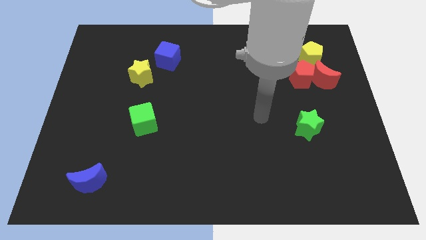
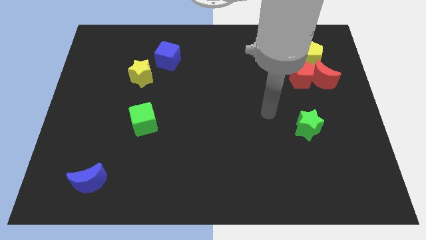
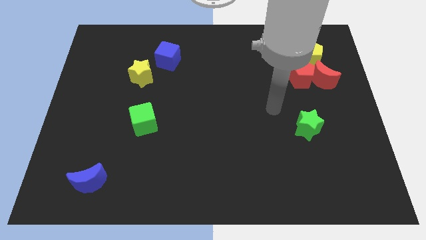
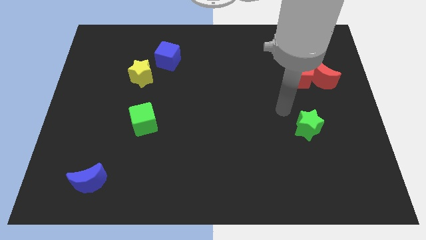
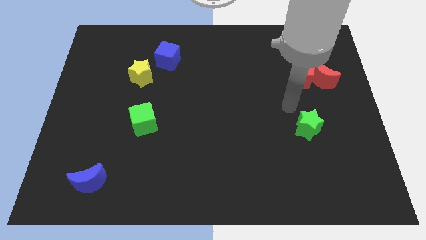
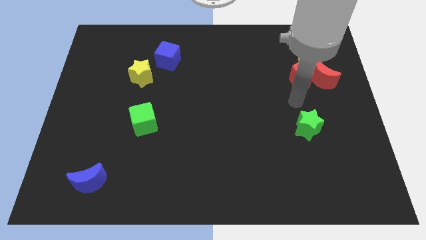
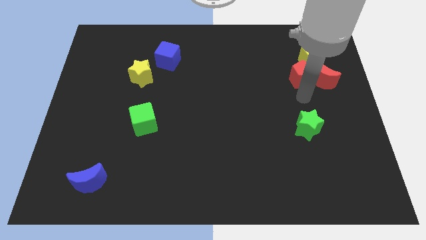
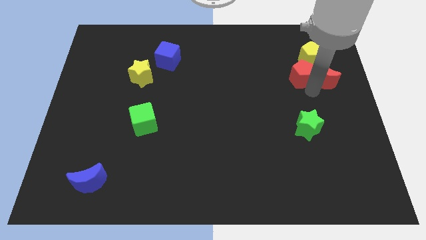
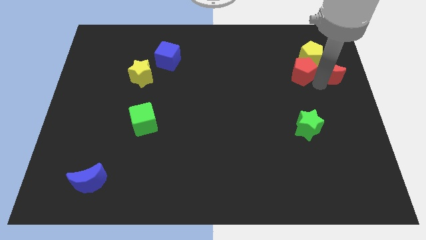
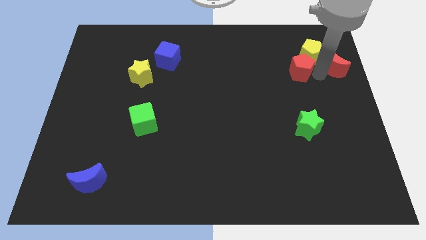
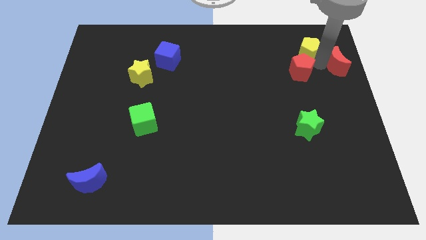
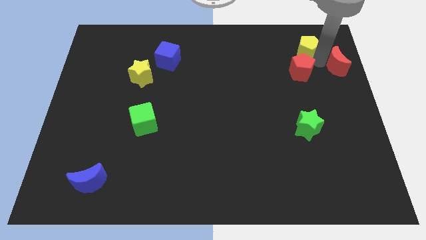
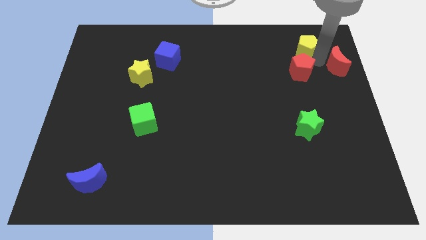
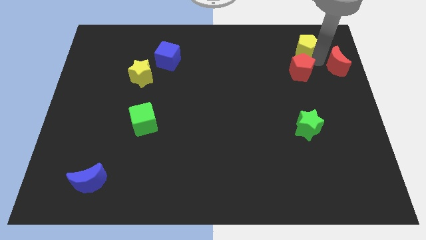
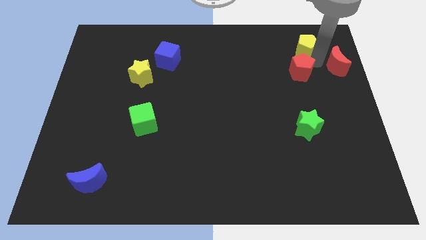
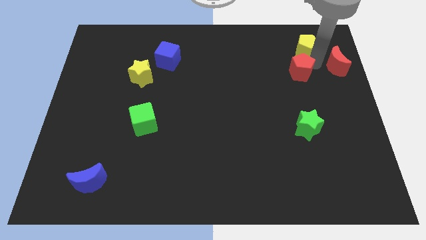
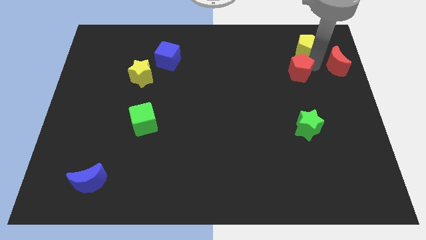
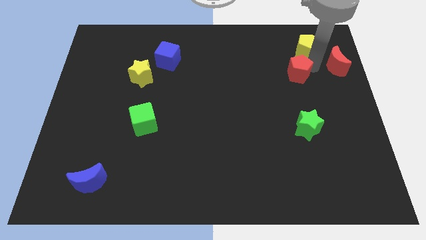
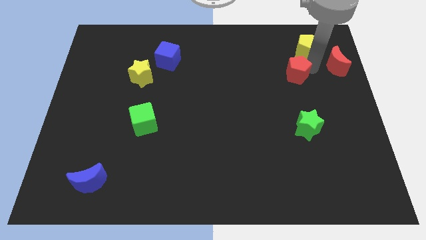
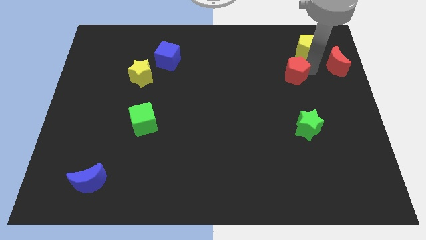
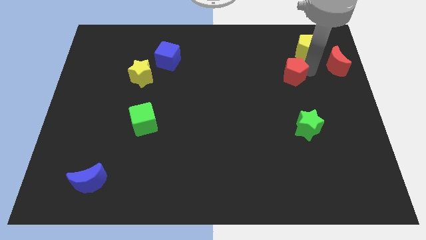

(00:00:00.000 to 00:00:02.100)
move the red pentagon away from the red moon and yellow pentagon

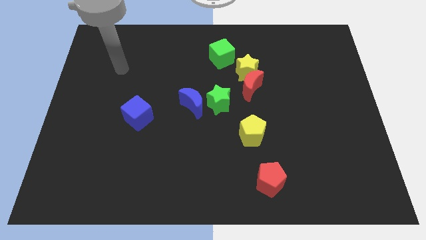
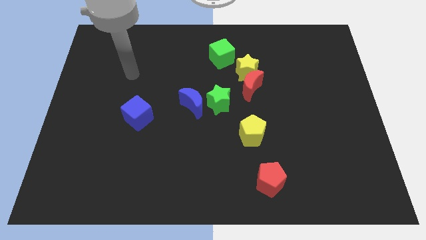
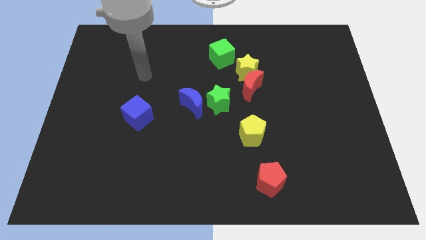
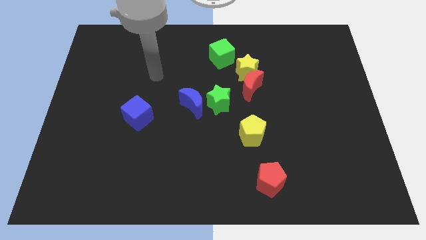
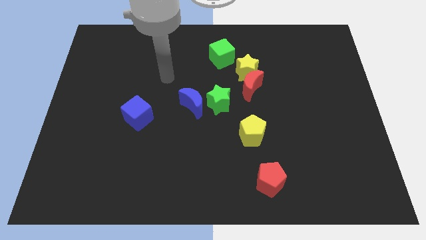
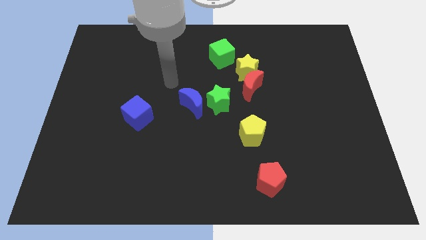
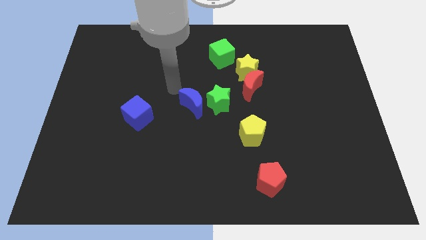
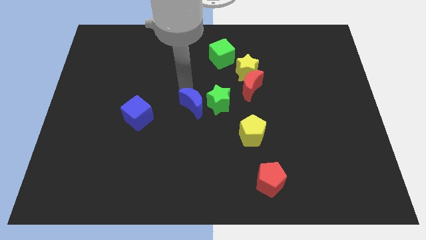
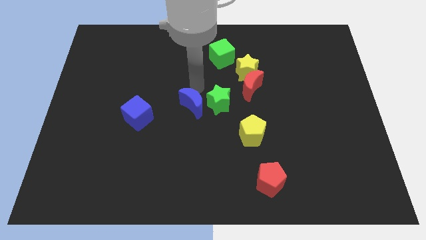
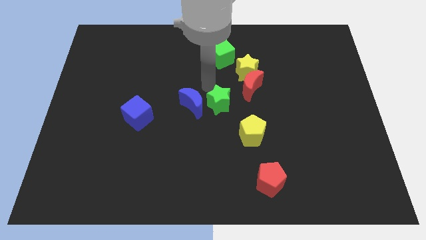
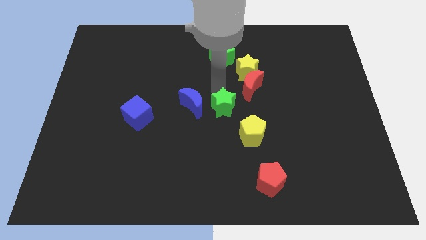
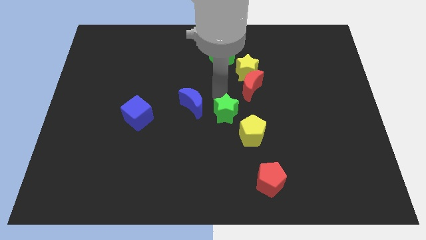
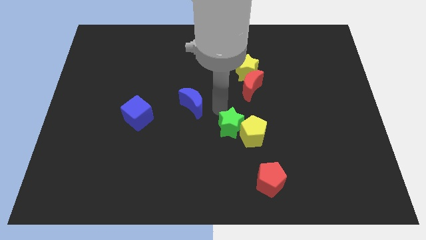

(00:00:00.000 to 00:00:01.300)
separate the blue moon from the green star

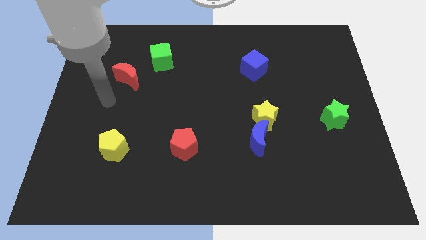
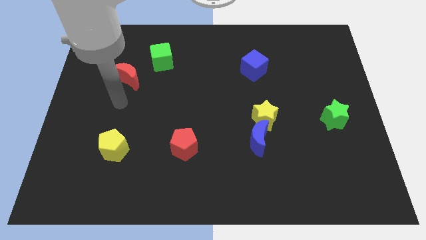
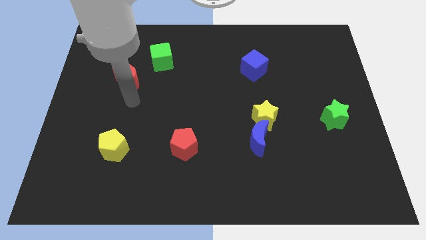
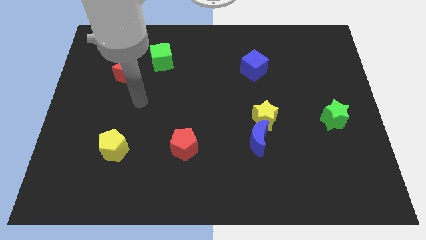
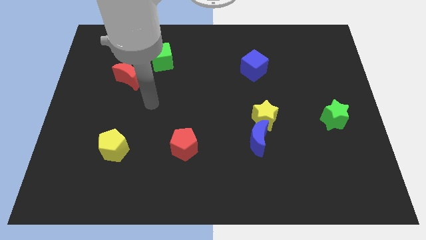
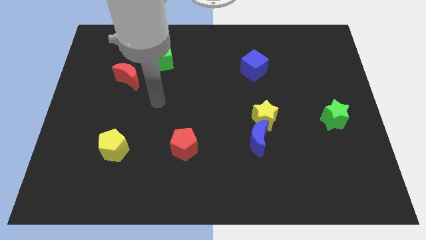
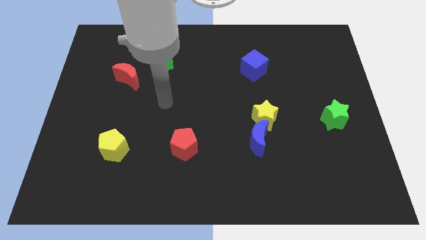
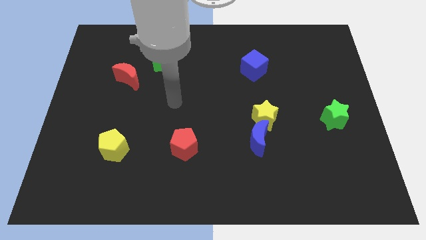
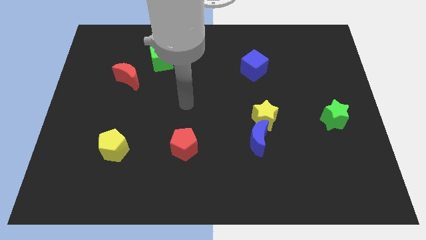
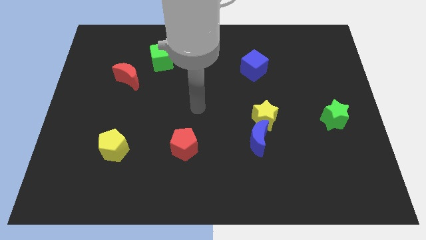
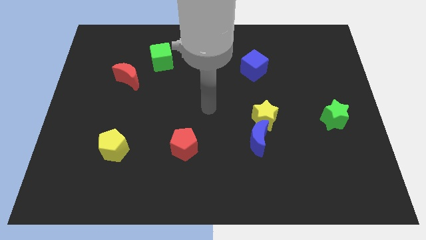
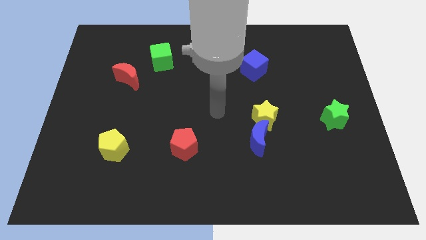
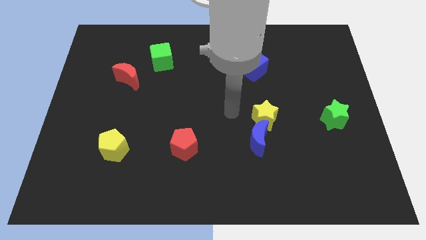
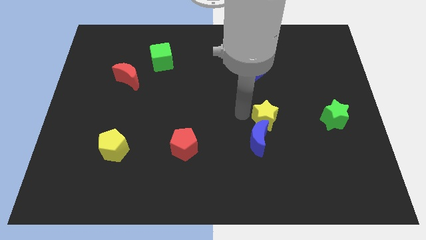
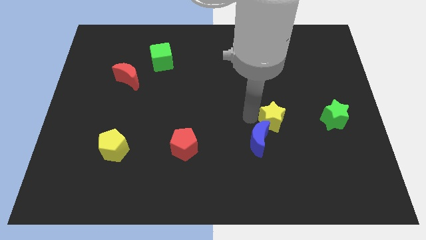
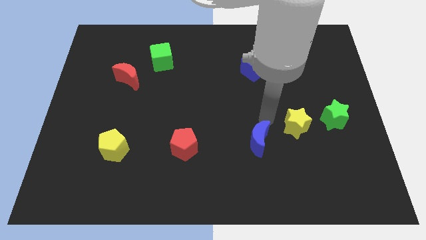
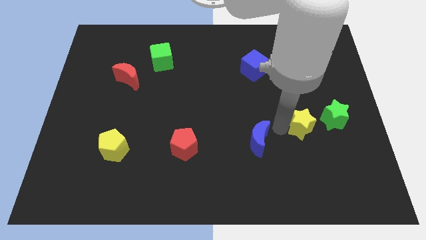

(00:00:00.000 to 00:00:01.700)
move the blue moon away from the yellow star

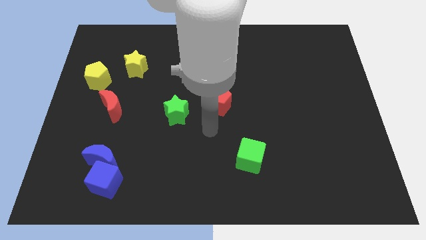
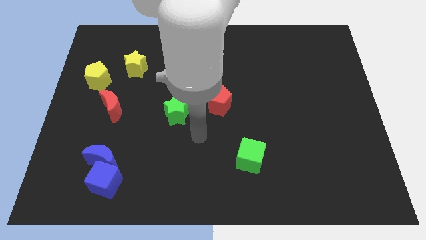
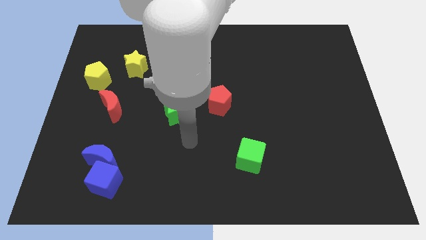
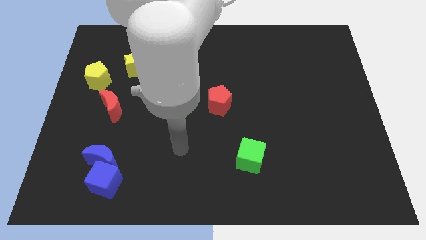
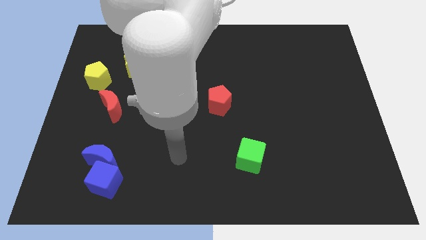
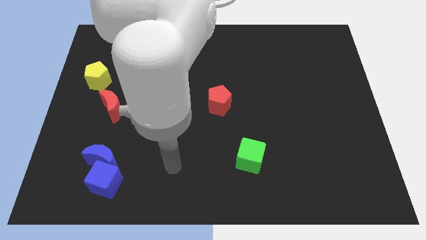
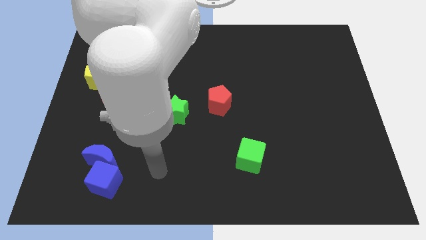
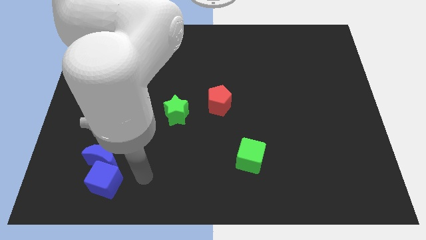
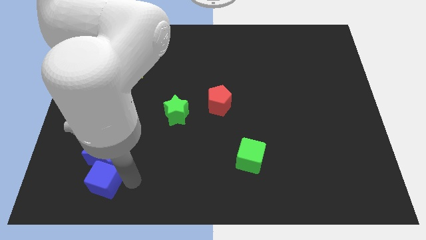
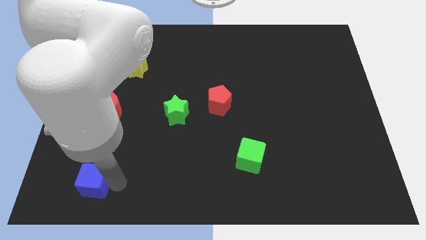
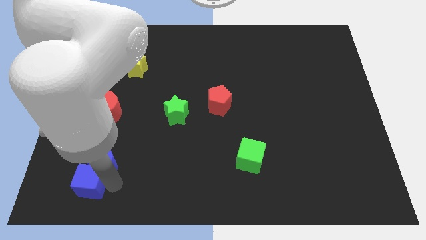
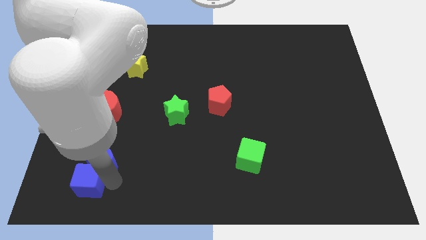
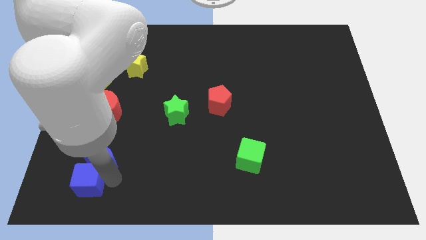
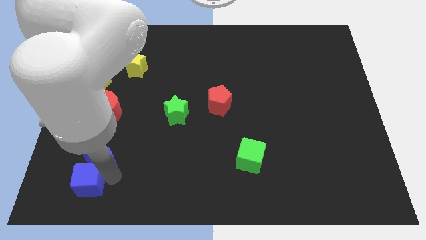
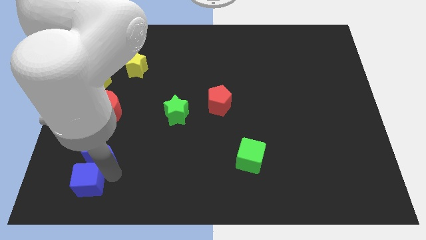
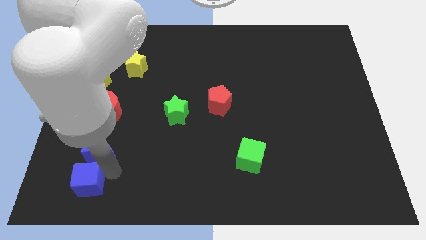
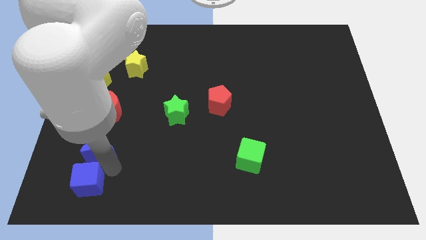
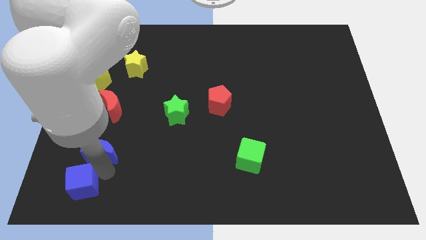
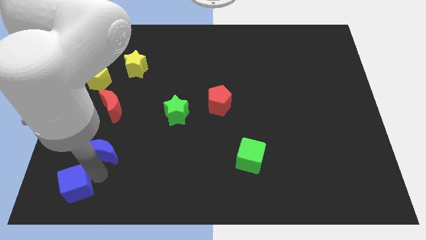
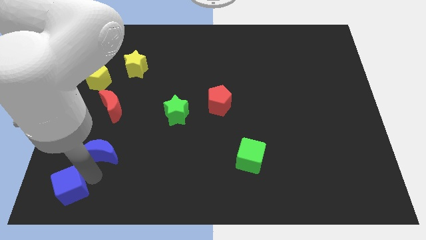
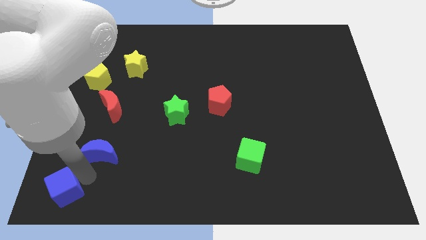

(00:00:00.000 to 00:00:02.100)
pull the blue moon apart from the blue cube

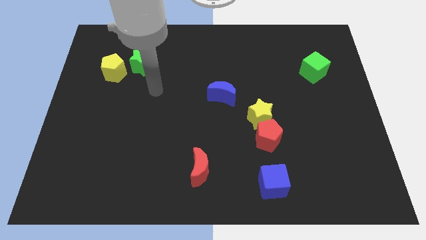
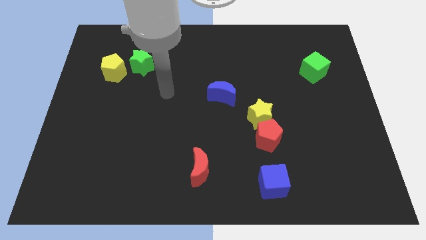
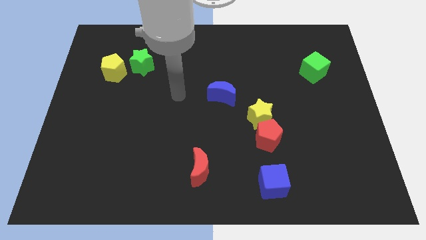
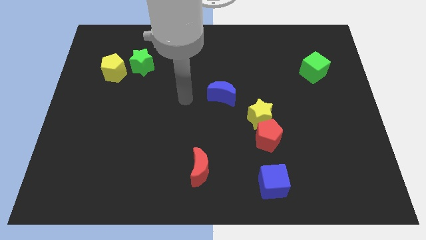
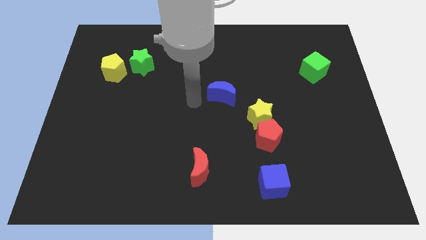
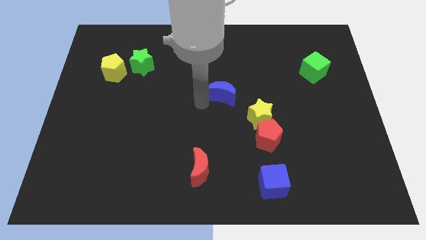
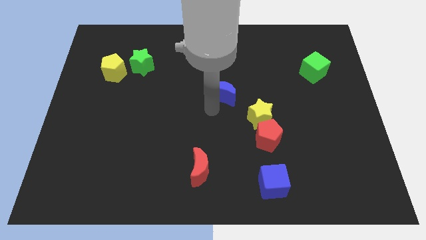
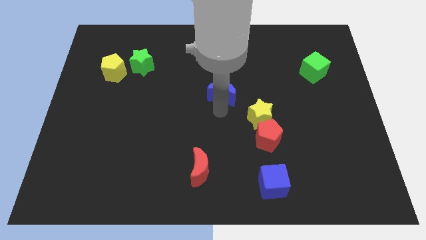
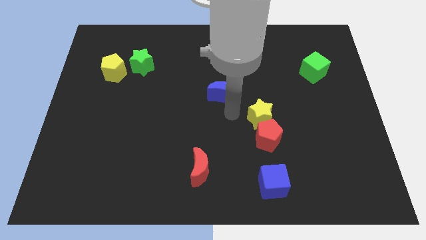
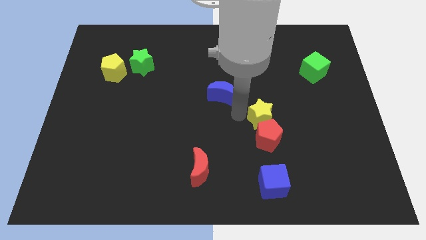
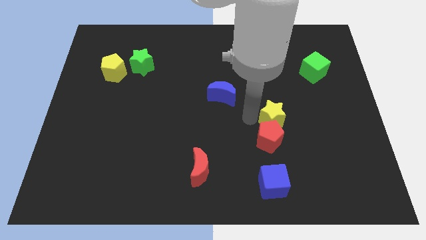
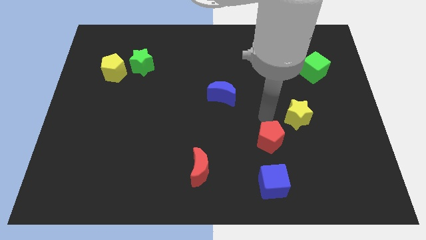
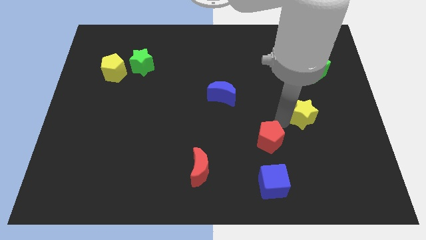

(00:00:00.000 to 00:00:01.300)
pull the red pentagon apart from the yellow star

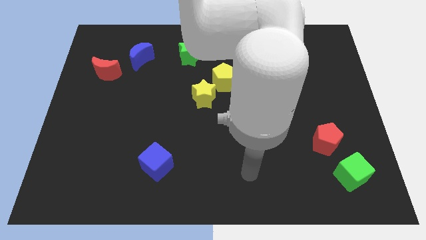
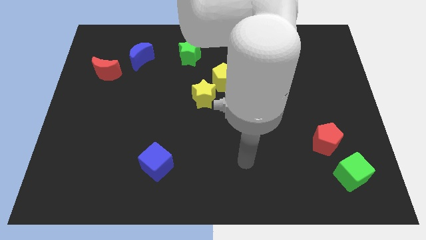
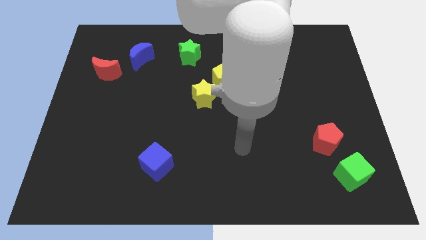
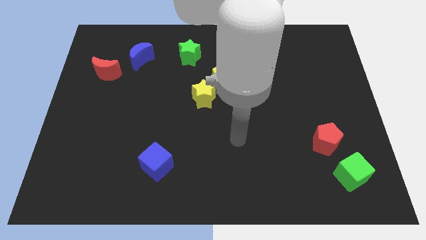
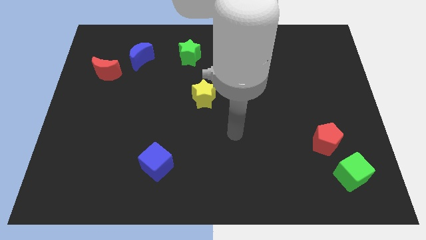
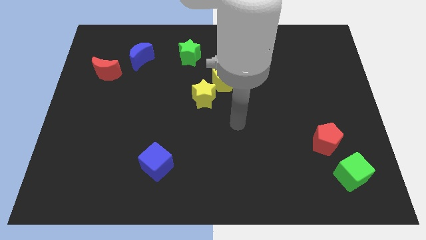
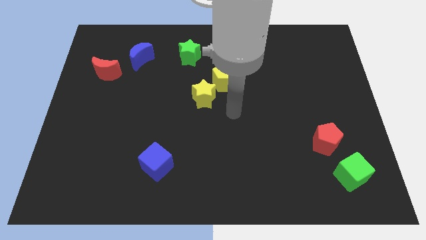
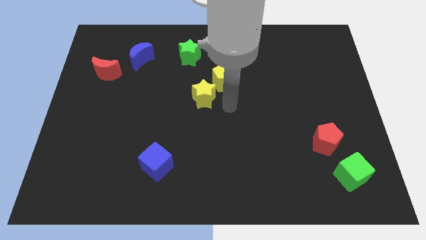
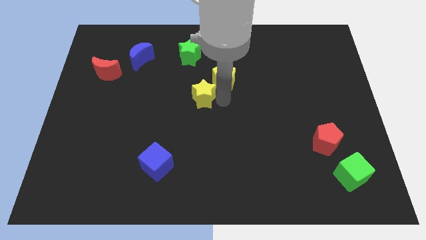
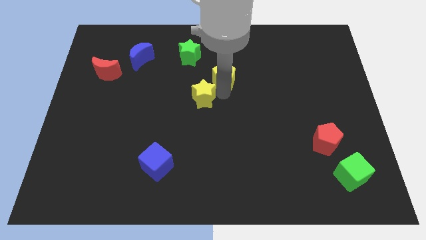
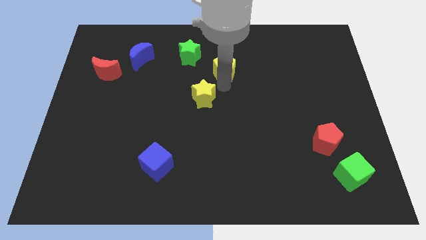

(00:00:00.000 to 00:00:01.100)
move the yellow star away from the yellow pentagon
